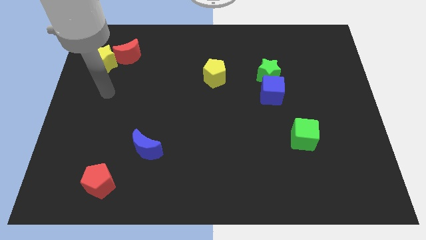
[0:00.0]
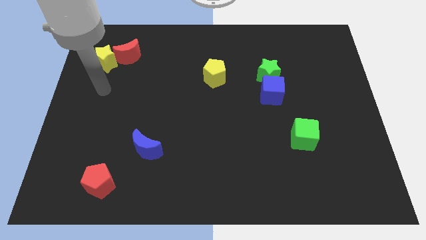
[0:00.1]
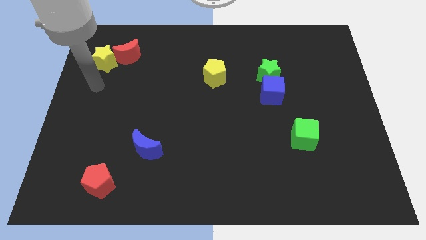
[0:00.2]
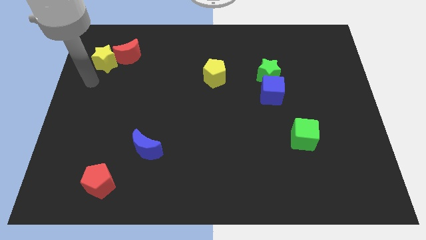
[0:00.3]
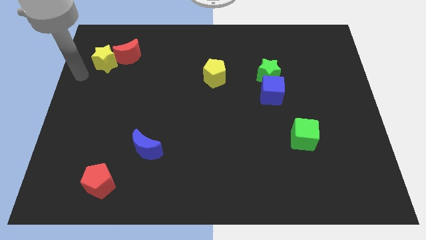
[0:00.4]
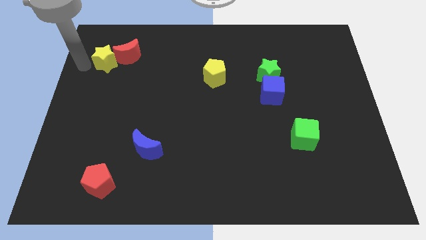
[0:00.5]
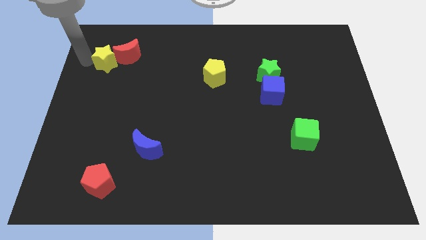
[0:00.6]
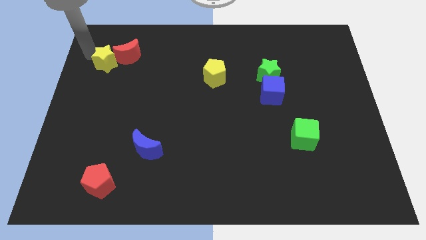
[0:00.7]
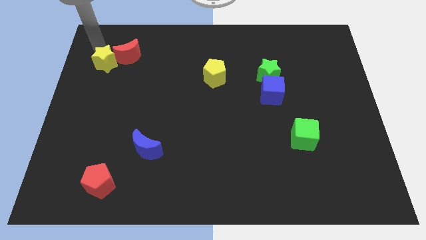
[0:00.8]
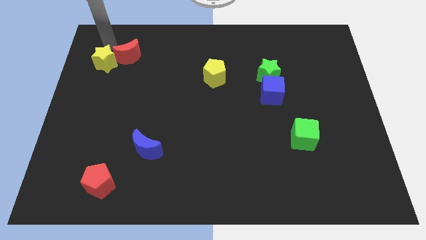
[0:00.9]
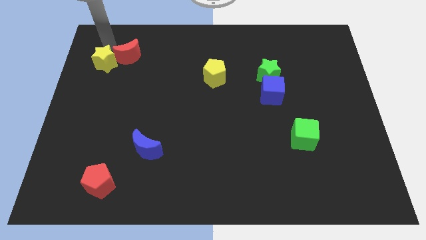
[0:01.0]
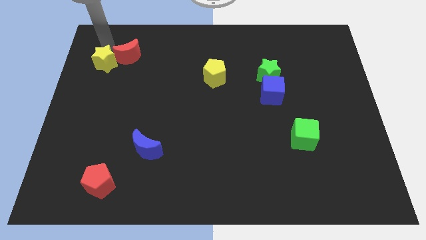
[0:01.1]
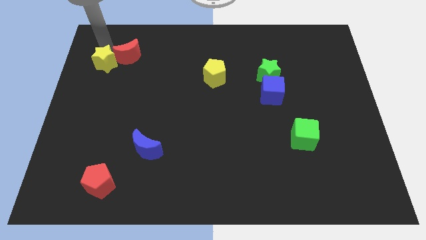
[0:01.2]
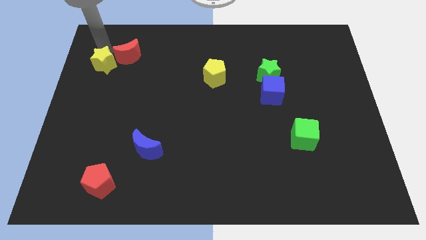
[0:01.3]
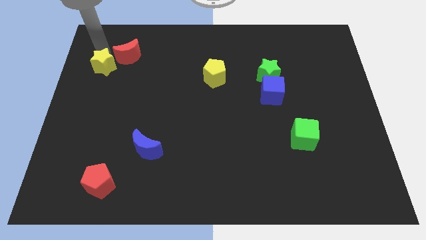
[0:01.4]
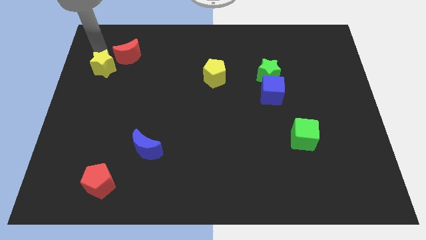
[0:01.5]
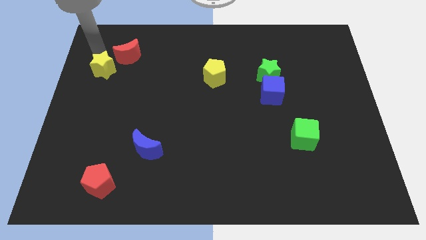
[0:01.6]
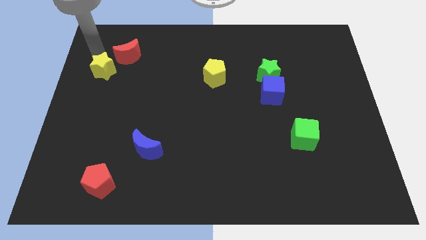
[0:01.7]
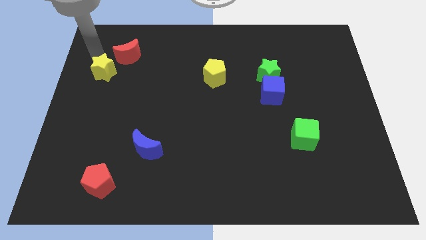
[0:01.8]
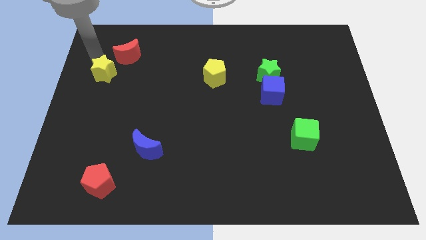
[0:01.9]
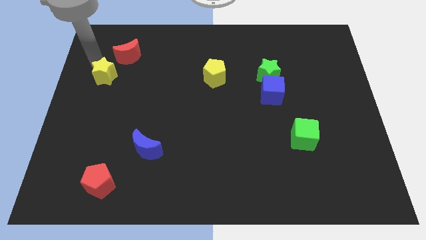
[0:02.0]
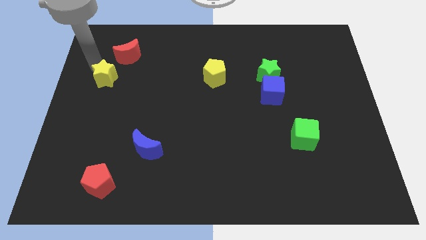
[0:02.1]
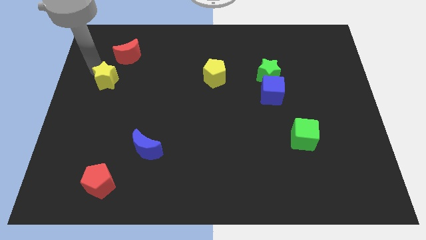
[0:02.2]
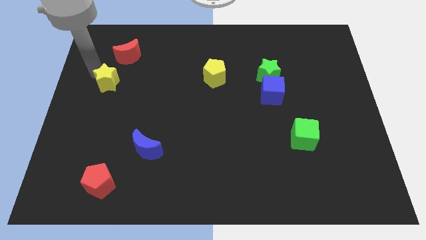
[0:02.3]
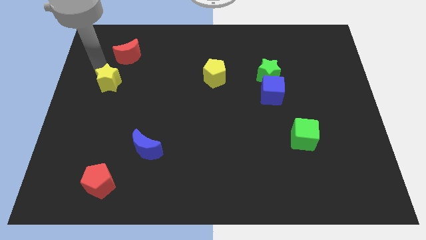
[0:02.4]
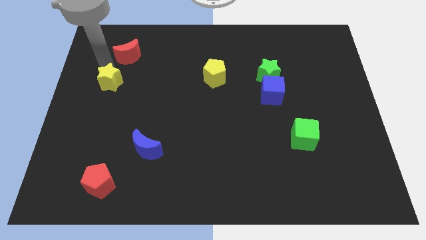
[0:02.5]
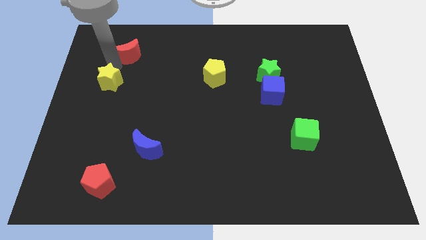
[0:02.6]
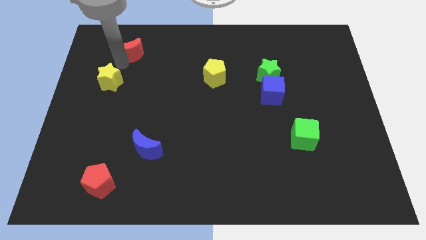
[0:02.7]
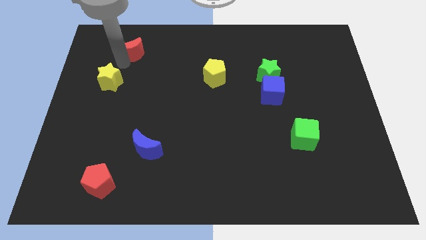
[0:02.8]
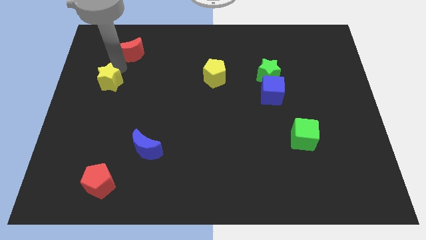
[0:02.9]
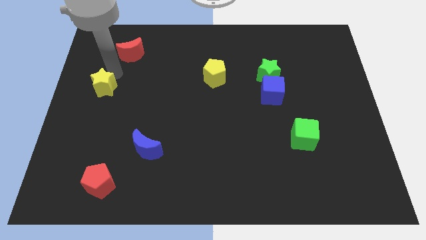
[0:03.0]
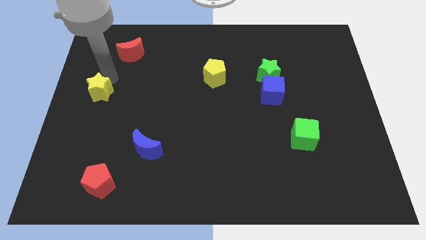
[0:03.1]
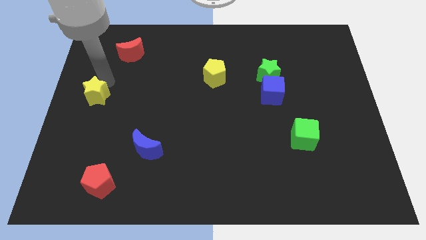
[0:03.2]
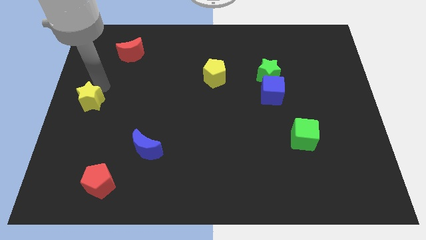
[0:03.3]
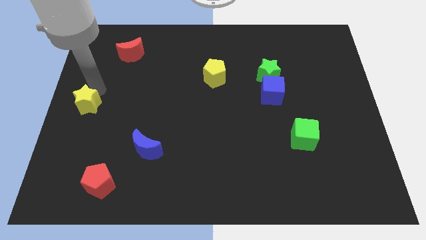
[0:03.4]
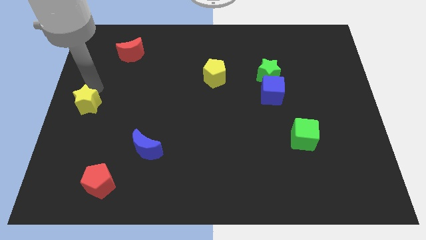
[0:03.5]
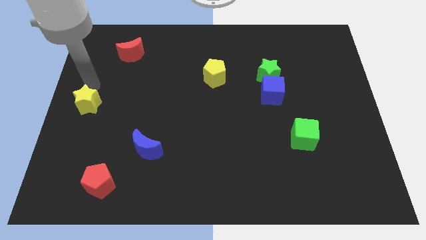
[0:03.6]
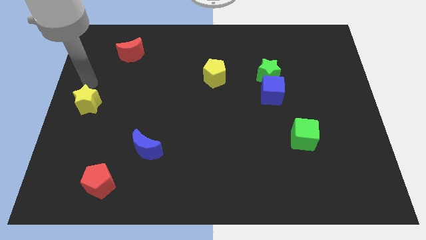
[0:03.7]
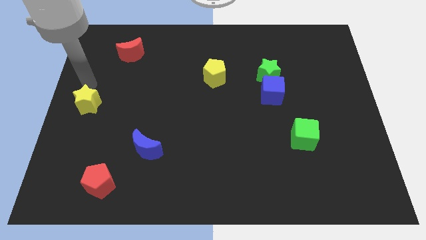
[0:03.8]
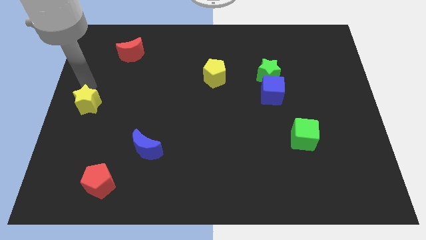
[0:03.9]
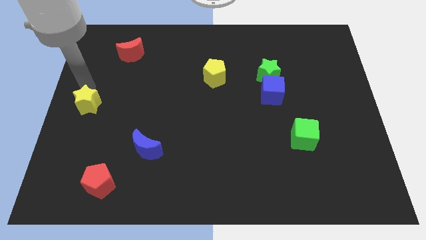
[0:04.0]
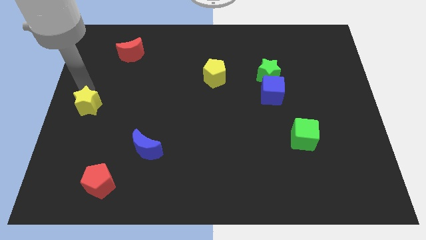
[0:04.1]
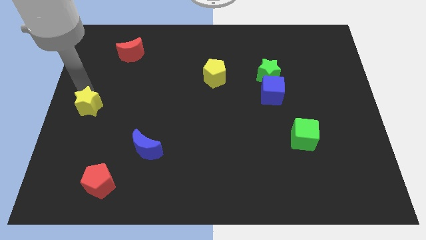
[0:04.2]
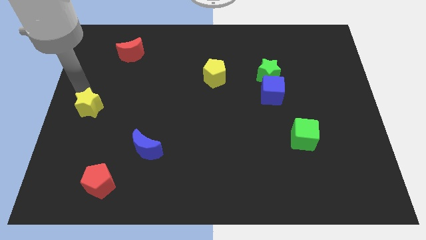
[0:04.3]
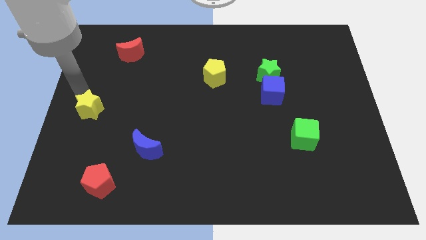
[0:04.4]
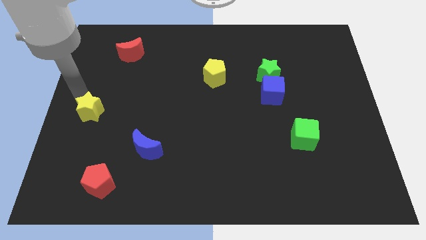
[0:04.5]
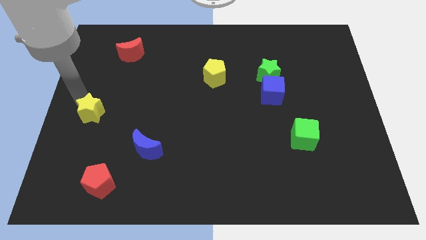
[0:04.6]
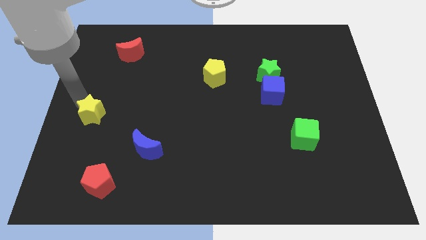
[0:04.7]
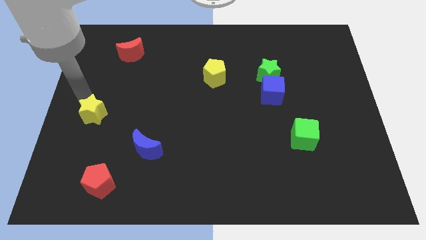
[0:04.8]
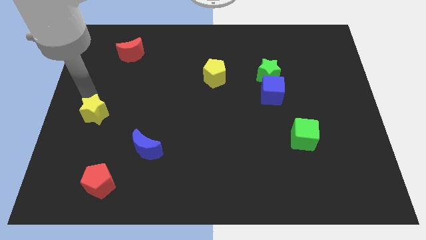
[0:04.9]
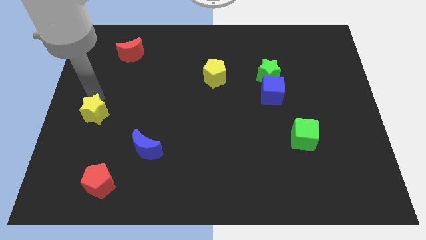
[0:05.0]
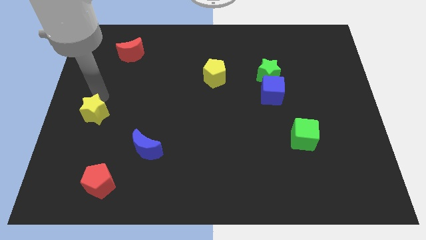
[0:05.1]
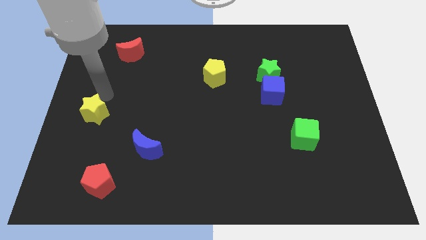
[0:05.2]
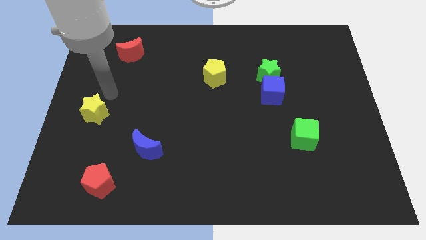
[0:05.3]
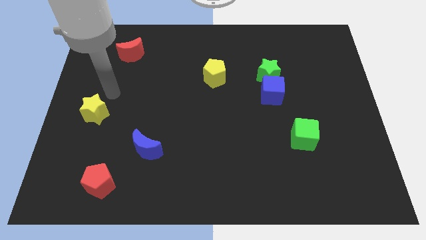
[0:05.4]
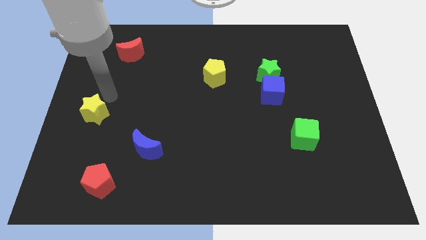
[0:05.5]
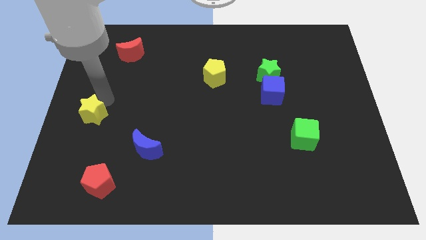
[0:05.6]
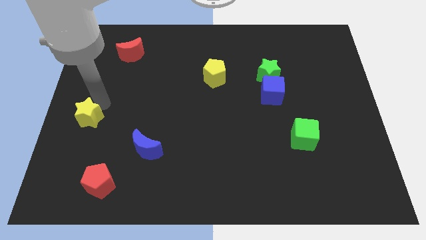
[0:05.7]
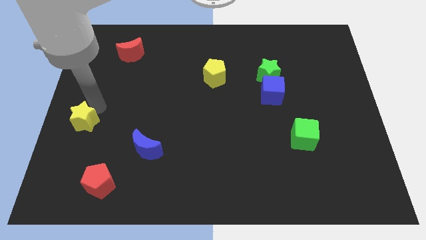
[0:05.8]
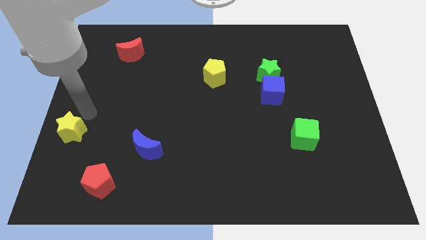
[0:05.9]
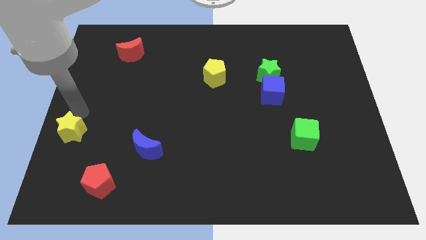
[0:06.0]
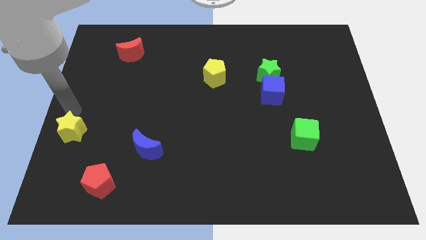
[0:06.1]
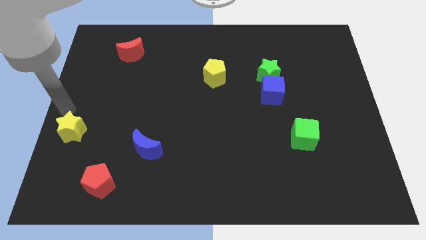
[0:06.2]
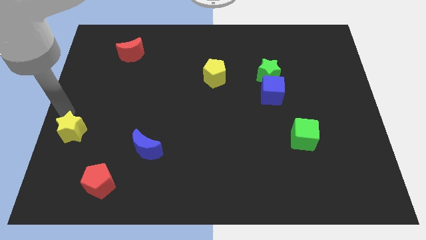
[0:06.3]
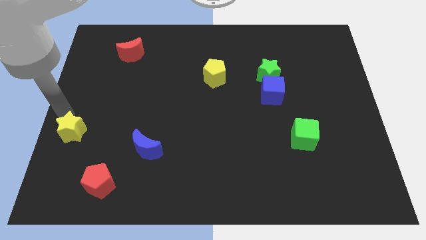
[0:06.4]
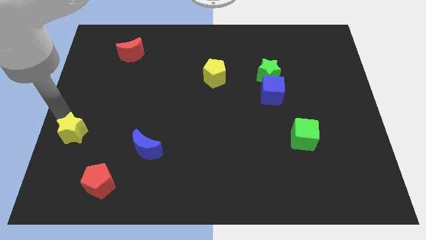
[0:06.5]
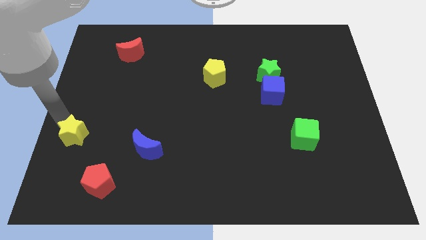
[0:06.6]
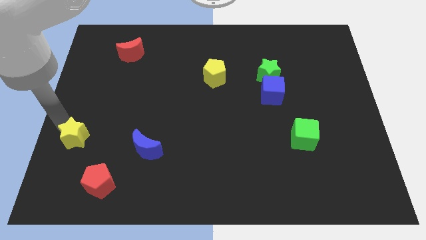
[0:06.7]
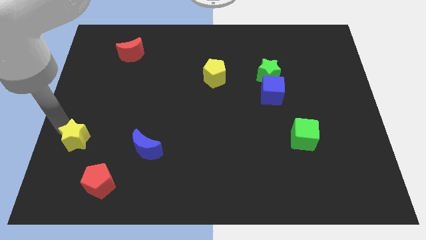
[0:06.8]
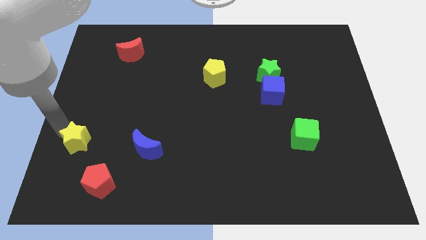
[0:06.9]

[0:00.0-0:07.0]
move the yellow star diagonally up and to the left of the red pentagon
